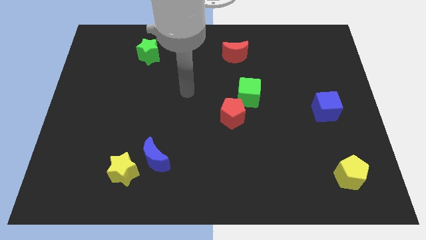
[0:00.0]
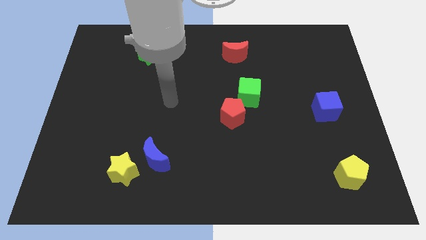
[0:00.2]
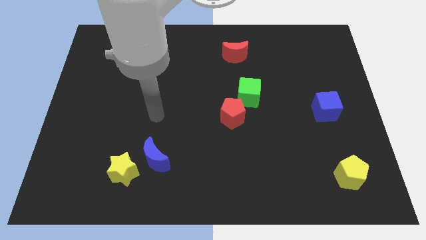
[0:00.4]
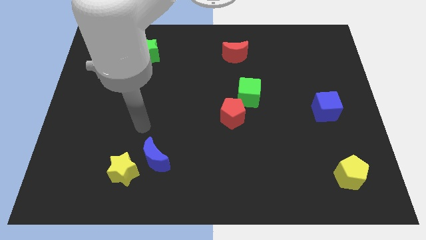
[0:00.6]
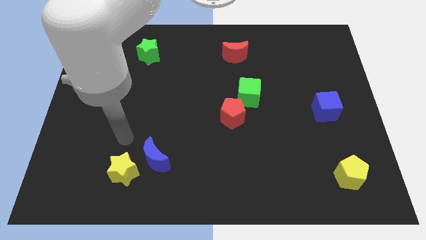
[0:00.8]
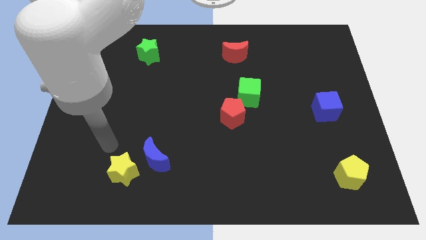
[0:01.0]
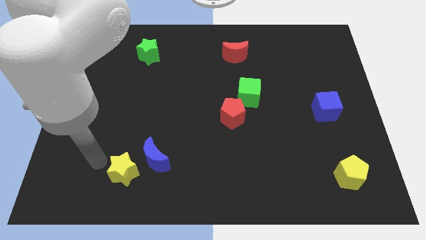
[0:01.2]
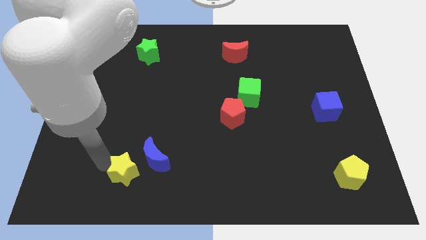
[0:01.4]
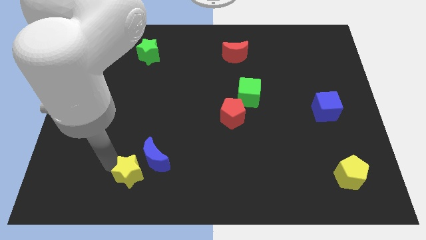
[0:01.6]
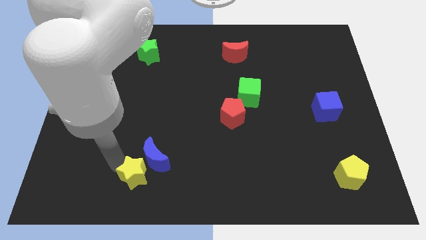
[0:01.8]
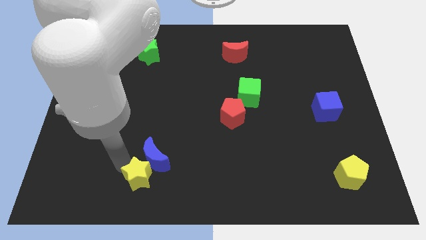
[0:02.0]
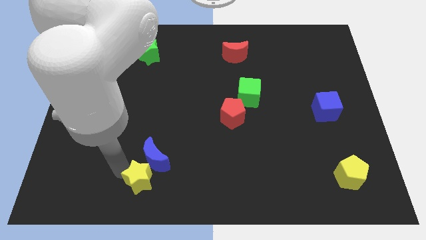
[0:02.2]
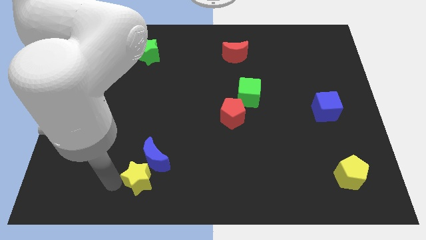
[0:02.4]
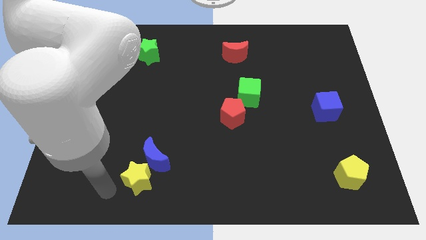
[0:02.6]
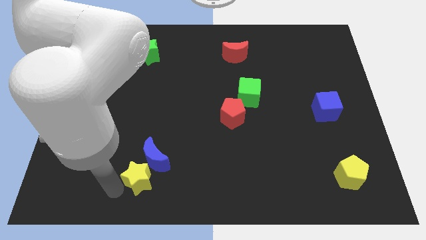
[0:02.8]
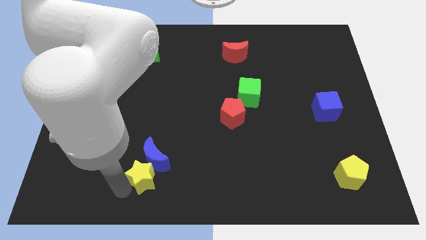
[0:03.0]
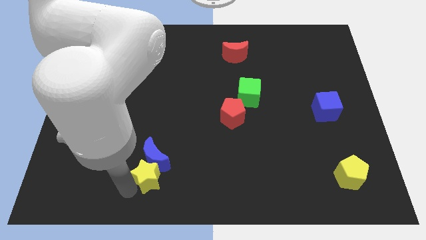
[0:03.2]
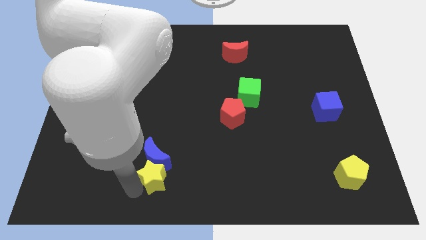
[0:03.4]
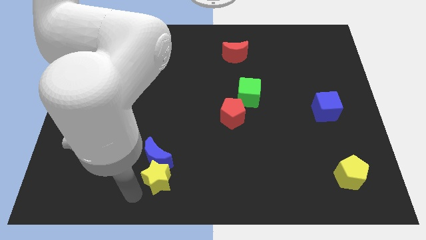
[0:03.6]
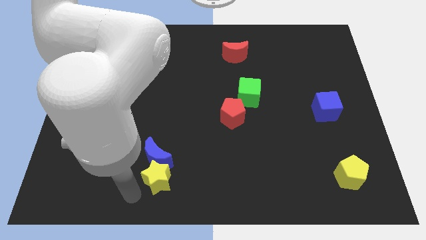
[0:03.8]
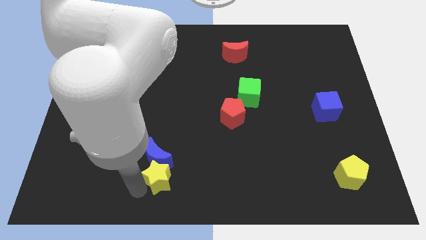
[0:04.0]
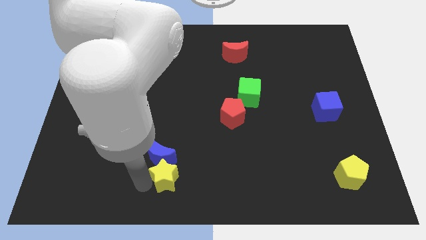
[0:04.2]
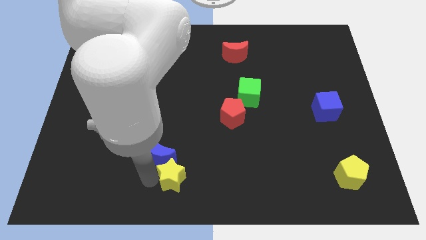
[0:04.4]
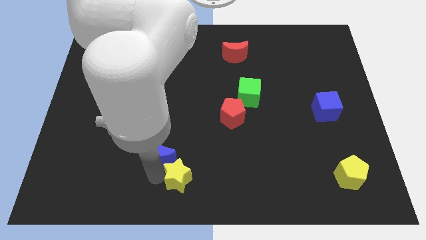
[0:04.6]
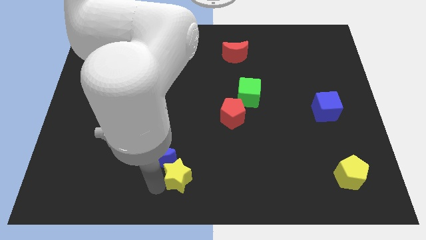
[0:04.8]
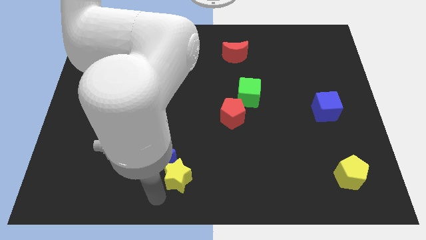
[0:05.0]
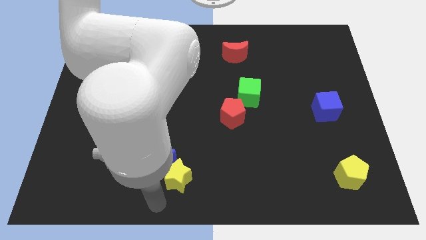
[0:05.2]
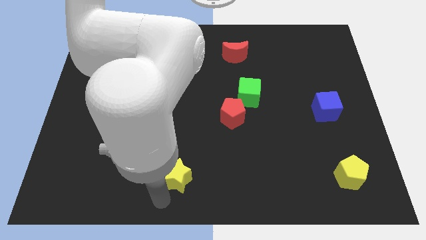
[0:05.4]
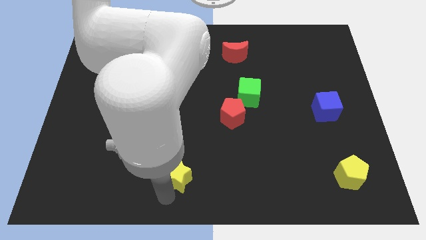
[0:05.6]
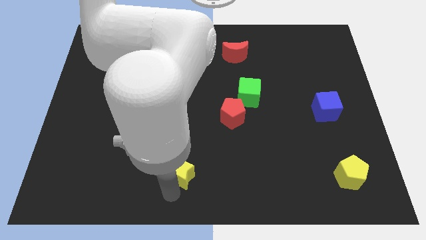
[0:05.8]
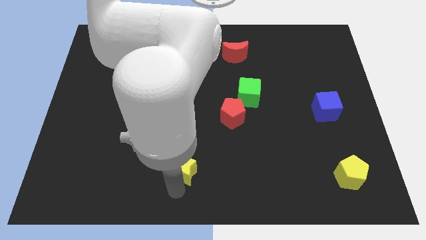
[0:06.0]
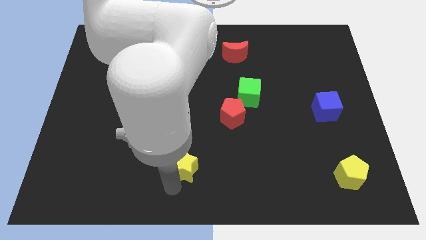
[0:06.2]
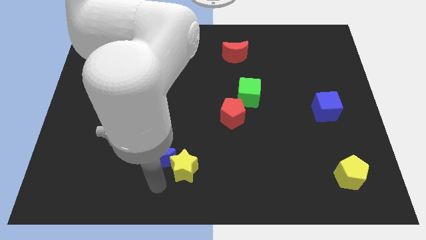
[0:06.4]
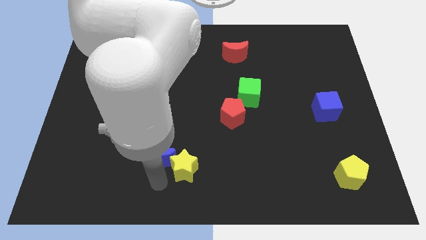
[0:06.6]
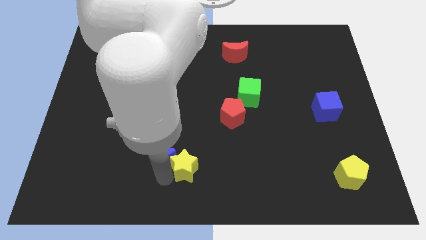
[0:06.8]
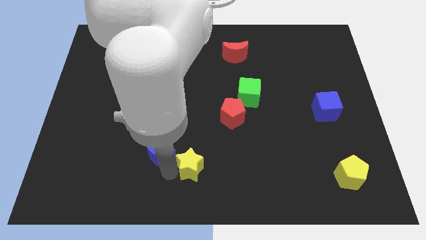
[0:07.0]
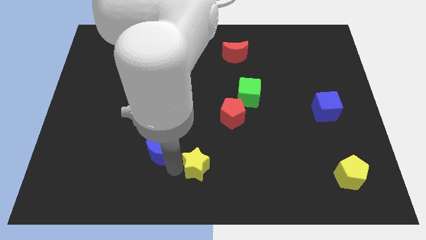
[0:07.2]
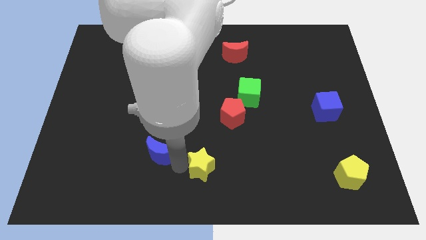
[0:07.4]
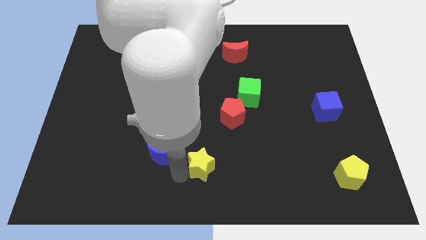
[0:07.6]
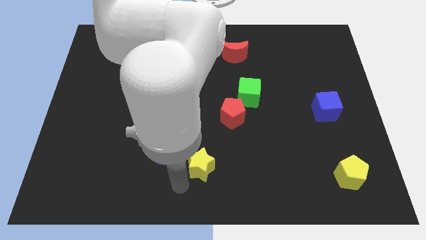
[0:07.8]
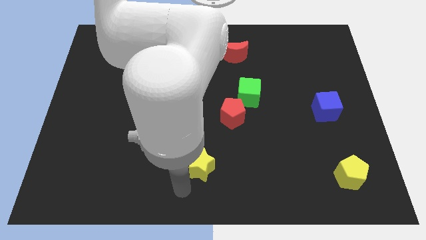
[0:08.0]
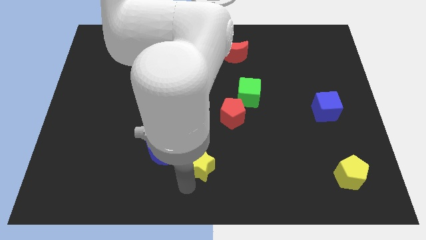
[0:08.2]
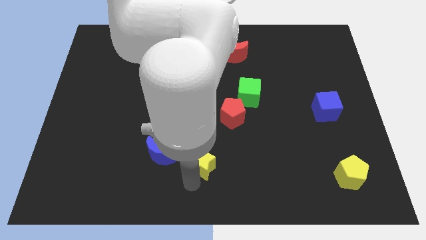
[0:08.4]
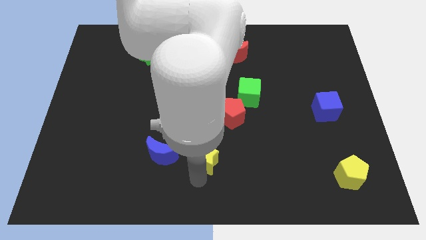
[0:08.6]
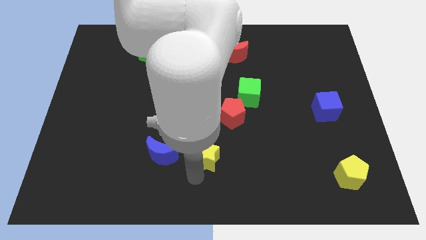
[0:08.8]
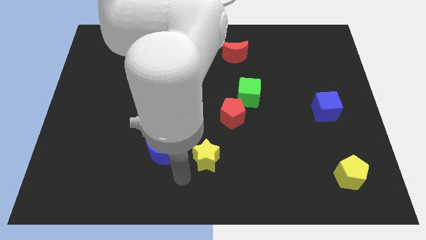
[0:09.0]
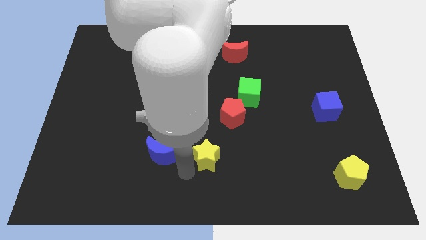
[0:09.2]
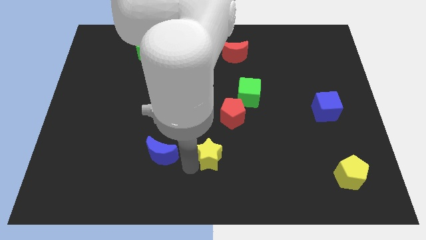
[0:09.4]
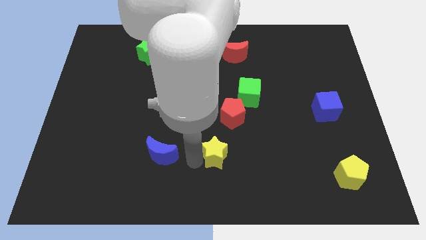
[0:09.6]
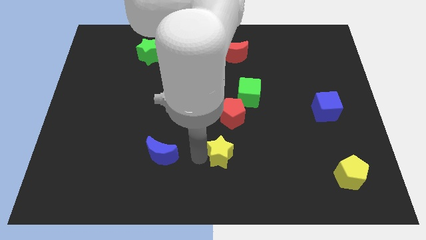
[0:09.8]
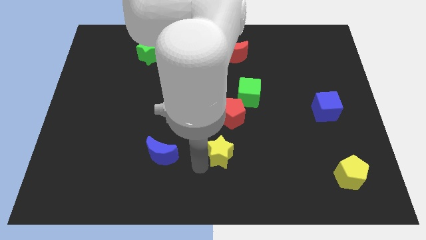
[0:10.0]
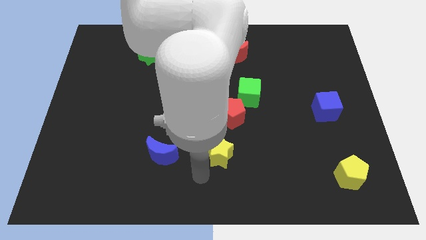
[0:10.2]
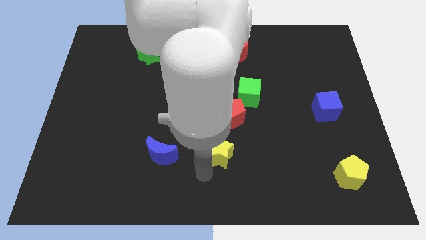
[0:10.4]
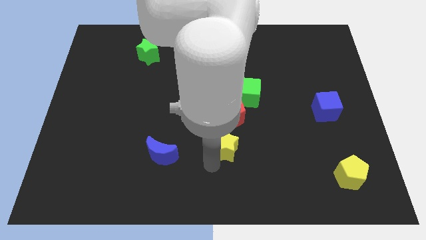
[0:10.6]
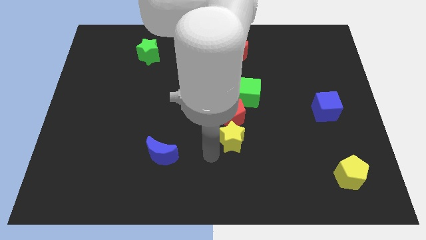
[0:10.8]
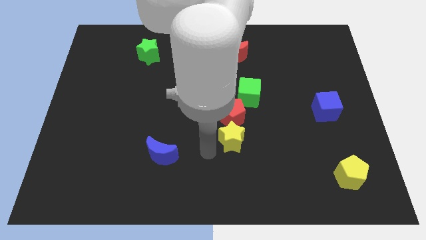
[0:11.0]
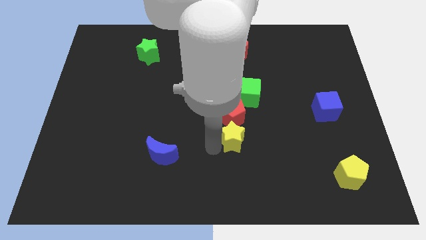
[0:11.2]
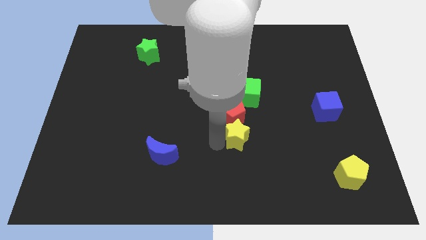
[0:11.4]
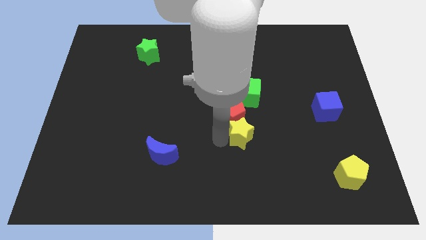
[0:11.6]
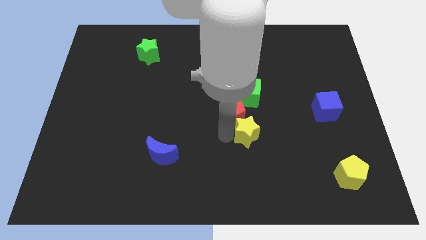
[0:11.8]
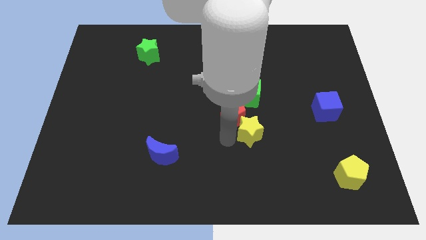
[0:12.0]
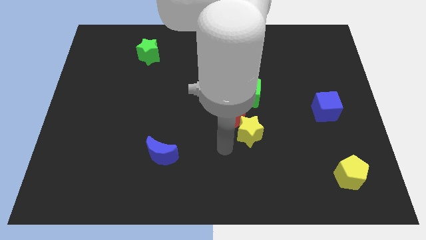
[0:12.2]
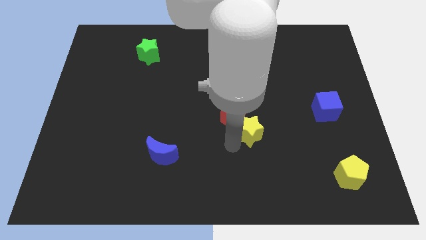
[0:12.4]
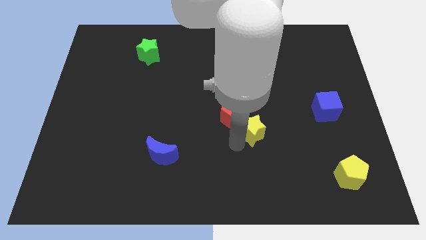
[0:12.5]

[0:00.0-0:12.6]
put the yellow star right of the red pentagon

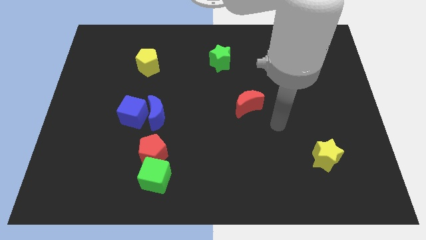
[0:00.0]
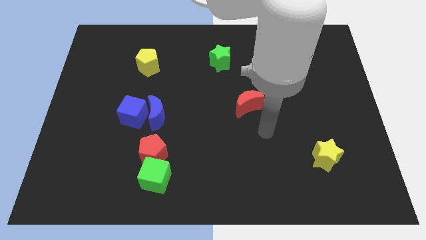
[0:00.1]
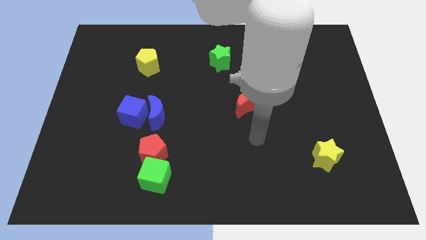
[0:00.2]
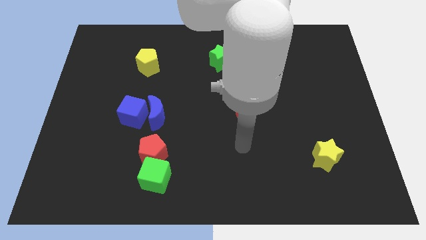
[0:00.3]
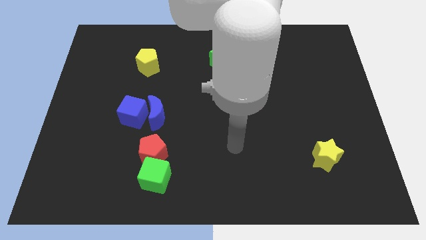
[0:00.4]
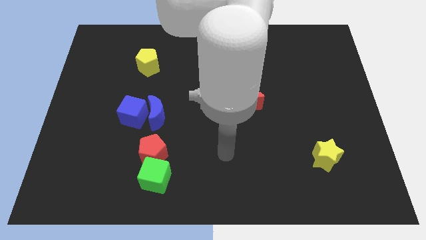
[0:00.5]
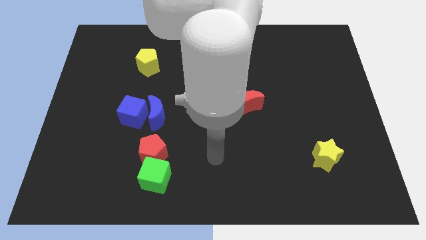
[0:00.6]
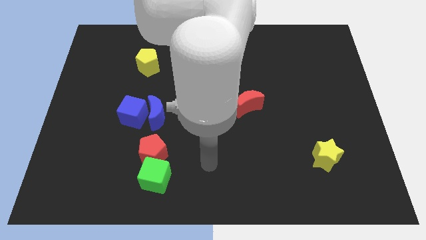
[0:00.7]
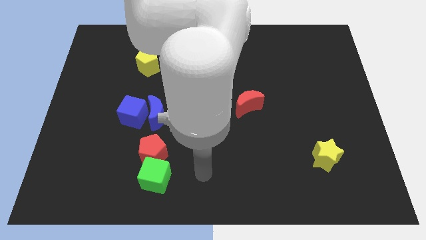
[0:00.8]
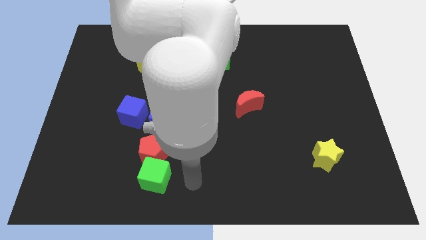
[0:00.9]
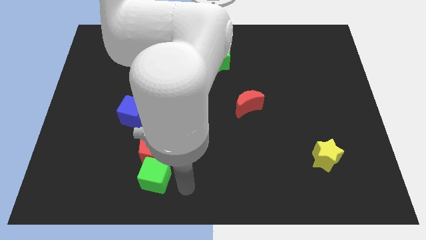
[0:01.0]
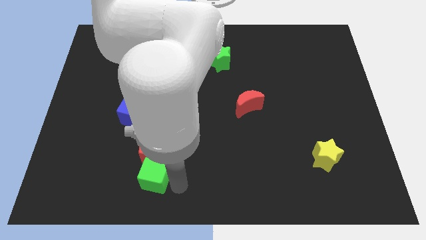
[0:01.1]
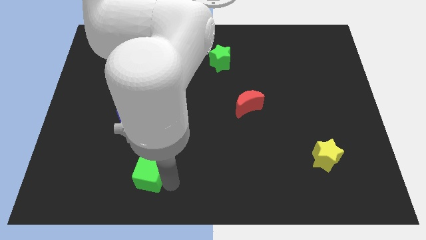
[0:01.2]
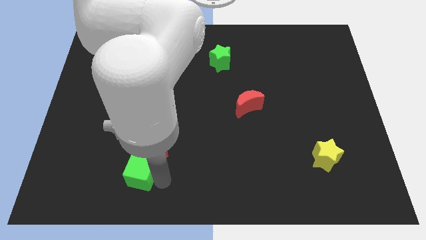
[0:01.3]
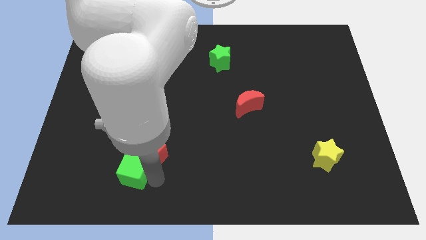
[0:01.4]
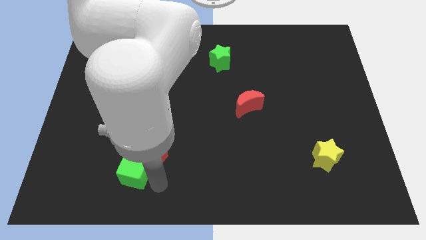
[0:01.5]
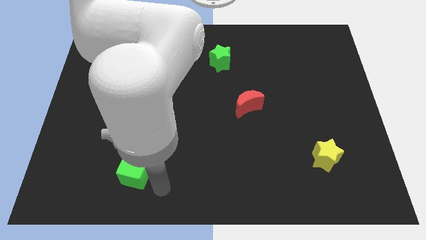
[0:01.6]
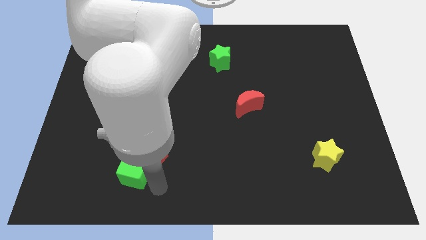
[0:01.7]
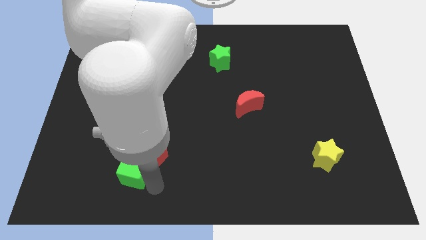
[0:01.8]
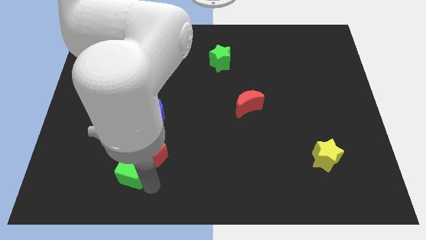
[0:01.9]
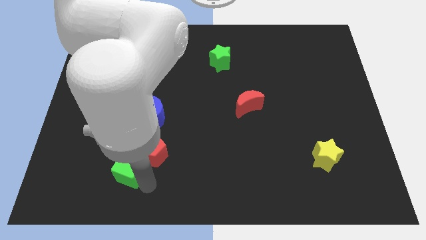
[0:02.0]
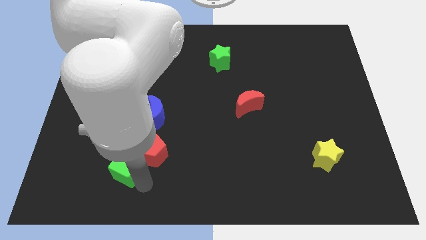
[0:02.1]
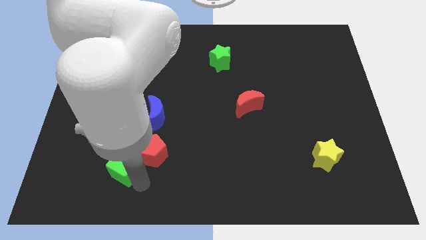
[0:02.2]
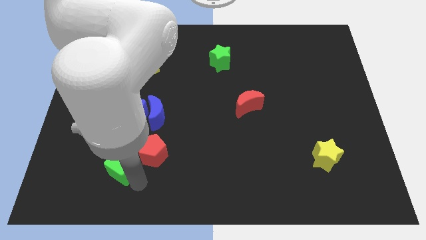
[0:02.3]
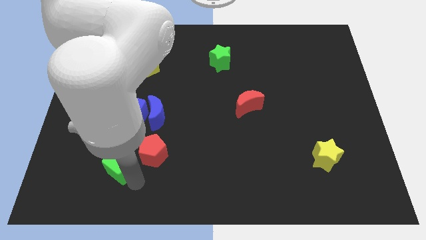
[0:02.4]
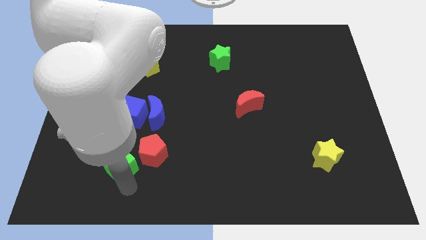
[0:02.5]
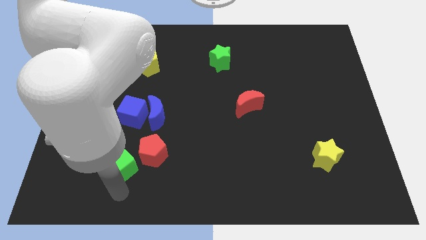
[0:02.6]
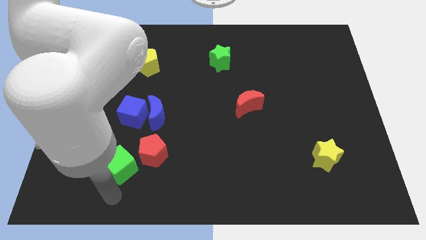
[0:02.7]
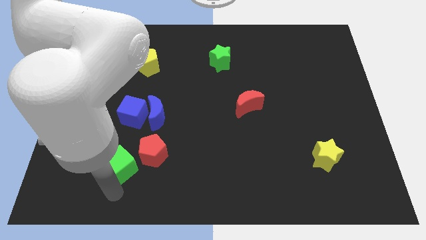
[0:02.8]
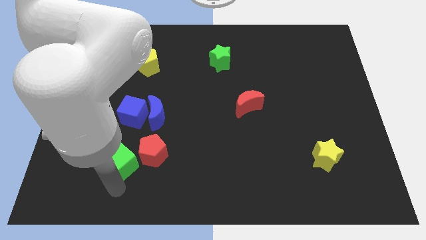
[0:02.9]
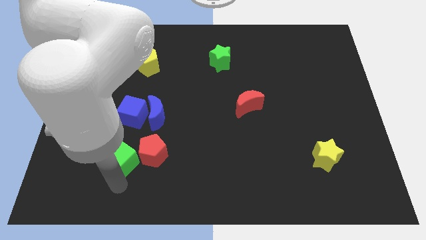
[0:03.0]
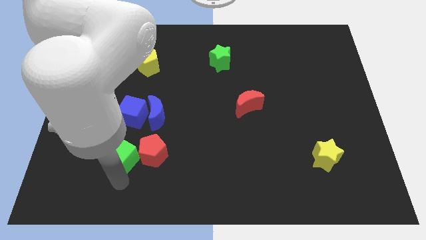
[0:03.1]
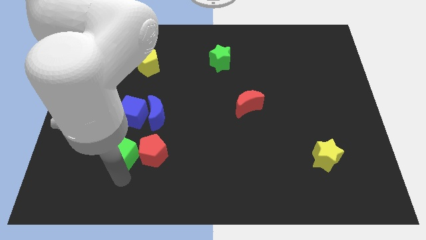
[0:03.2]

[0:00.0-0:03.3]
push the green cube diagonally down and to the left of the blue moon
